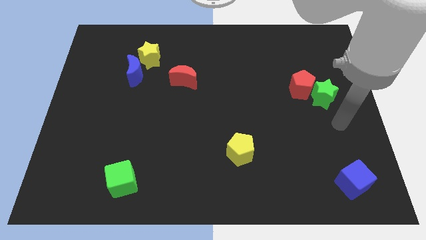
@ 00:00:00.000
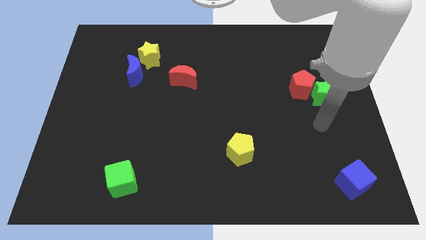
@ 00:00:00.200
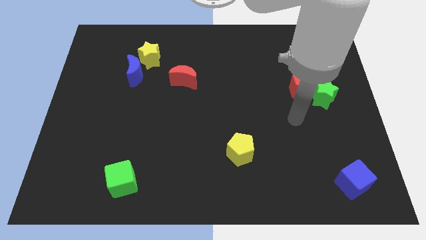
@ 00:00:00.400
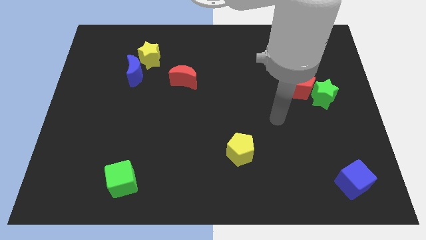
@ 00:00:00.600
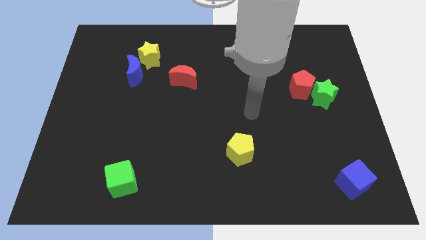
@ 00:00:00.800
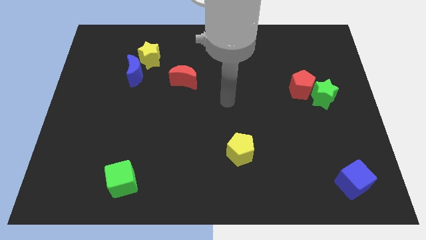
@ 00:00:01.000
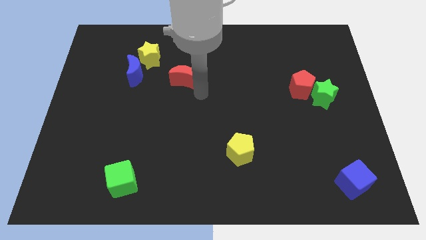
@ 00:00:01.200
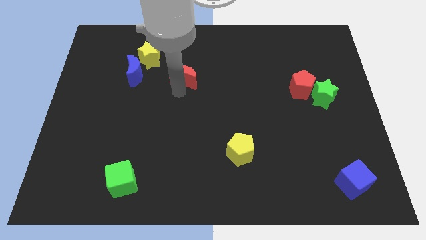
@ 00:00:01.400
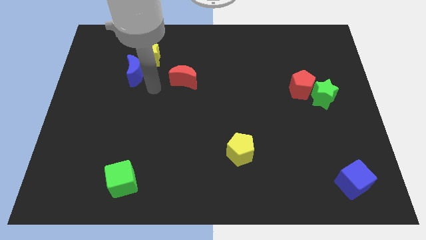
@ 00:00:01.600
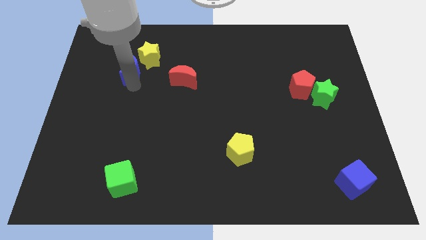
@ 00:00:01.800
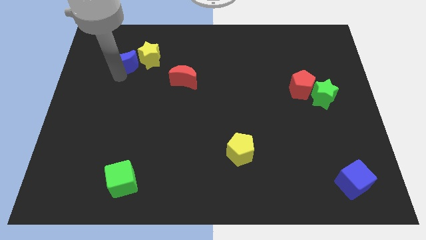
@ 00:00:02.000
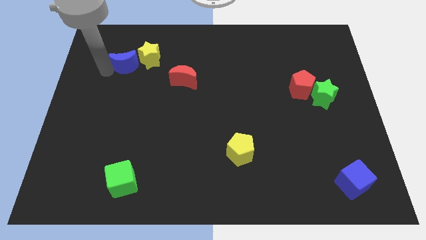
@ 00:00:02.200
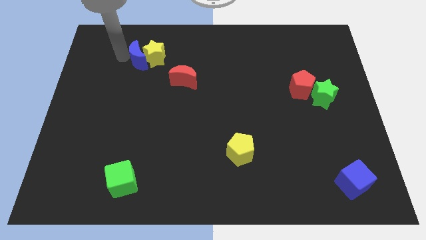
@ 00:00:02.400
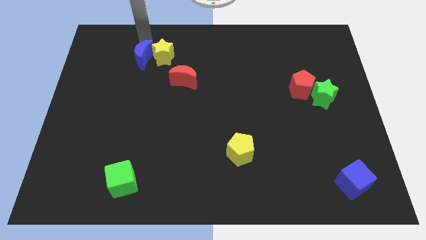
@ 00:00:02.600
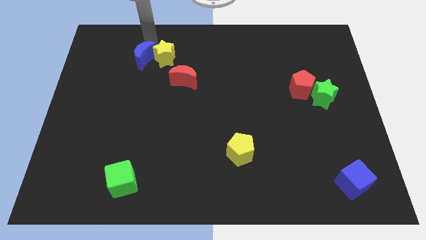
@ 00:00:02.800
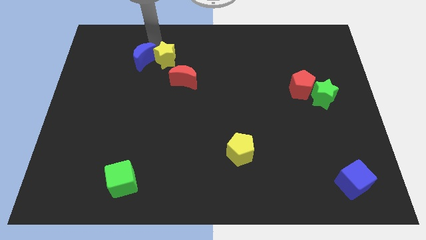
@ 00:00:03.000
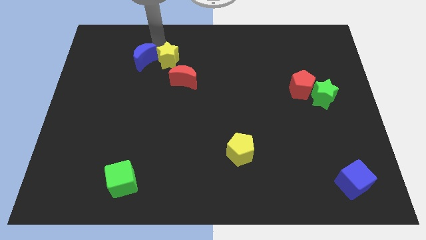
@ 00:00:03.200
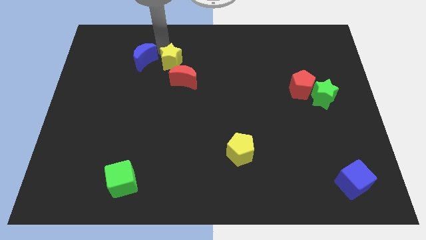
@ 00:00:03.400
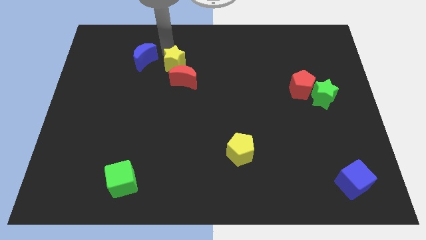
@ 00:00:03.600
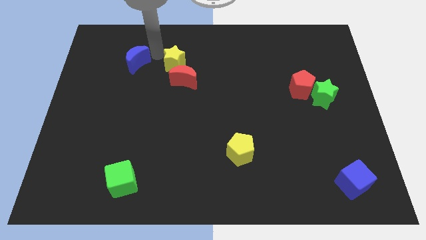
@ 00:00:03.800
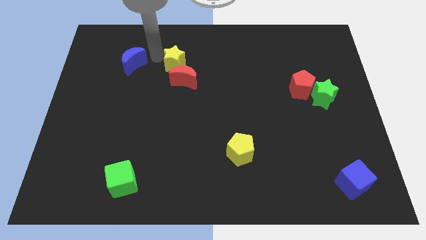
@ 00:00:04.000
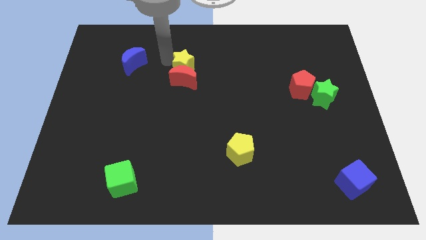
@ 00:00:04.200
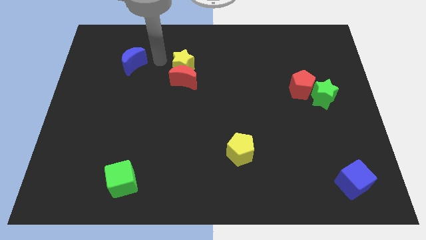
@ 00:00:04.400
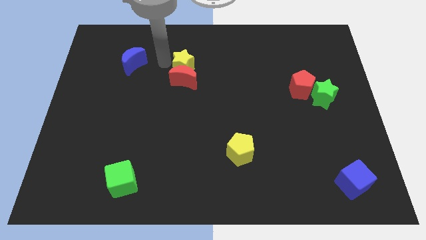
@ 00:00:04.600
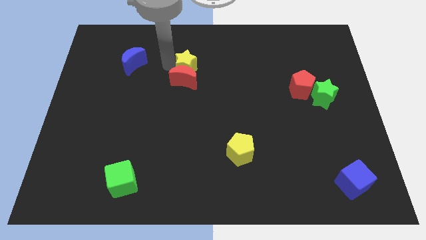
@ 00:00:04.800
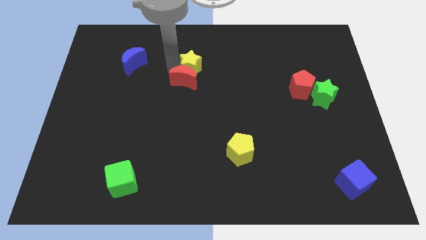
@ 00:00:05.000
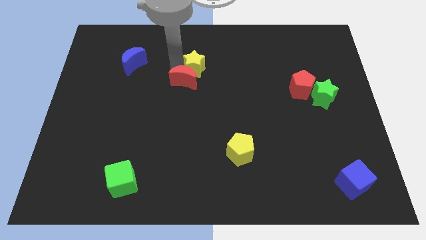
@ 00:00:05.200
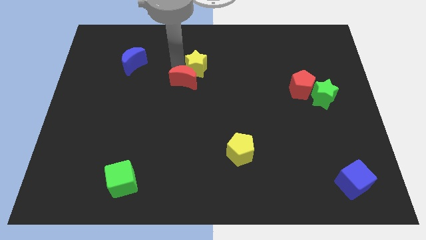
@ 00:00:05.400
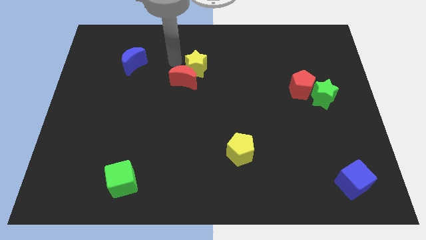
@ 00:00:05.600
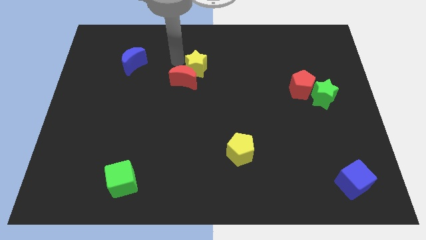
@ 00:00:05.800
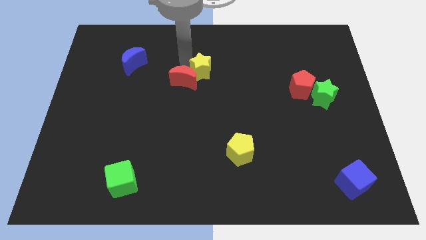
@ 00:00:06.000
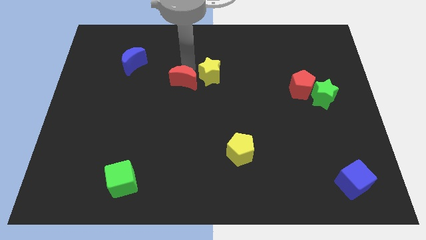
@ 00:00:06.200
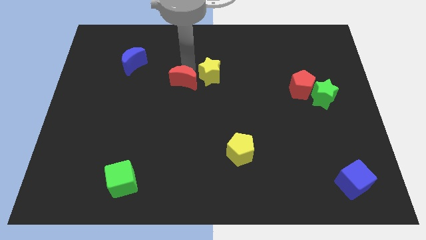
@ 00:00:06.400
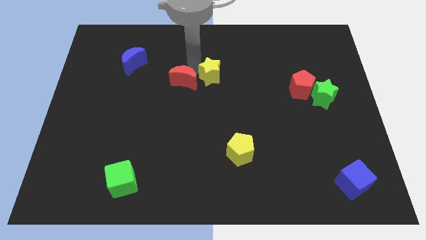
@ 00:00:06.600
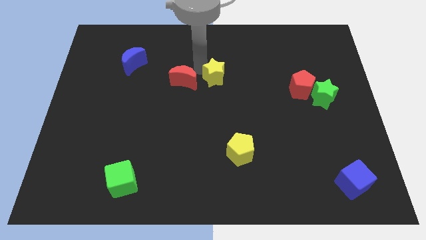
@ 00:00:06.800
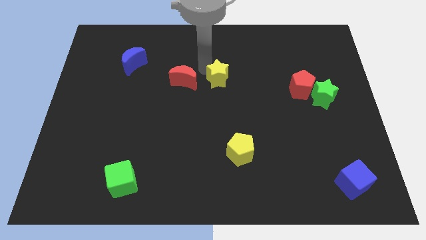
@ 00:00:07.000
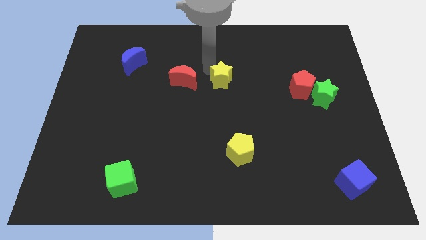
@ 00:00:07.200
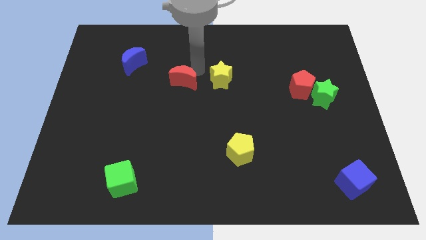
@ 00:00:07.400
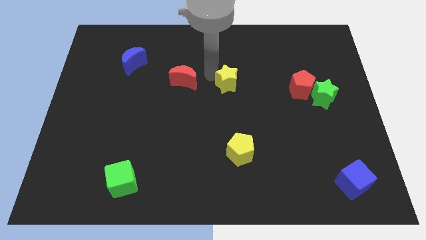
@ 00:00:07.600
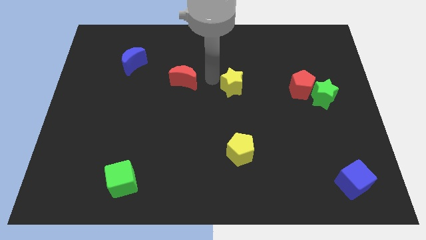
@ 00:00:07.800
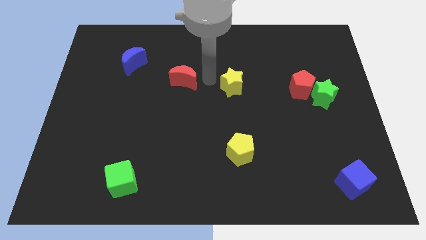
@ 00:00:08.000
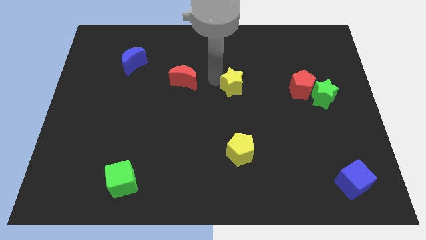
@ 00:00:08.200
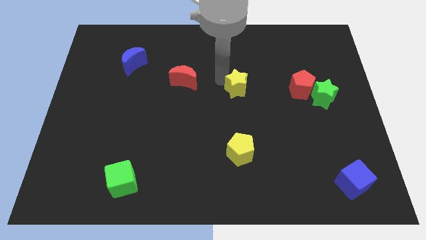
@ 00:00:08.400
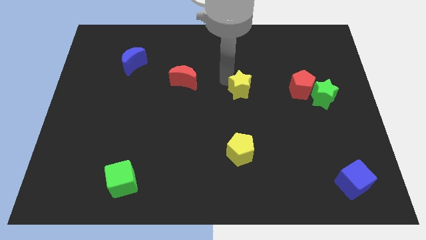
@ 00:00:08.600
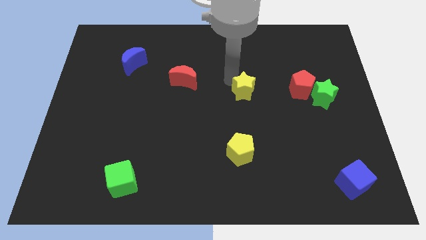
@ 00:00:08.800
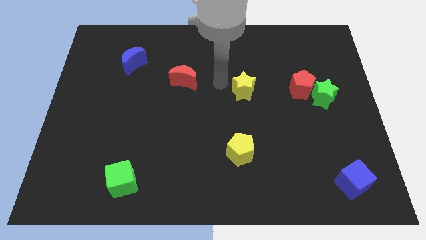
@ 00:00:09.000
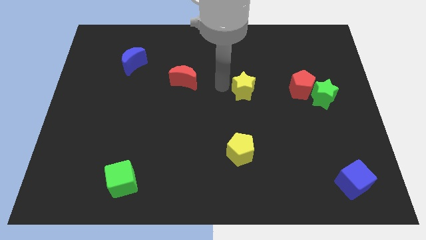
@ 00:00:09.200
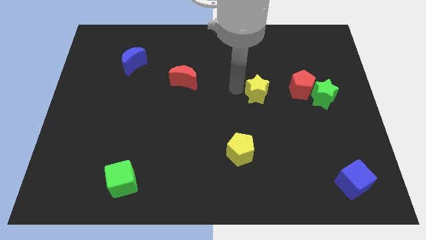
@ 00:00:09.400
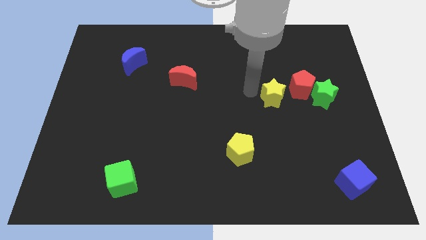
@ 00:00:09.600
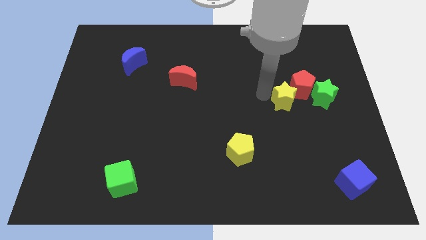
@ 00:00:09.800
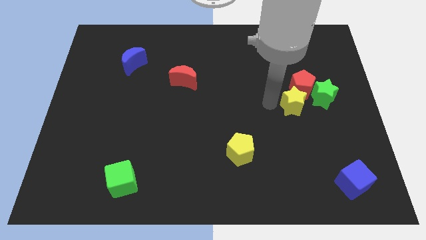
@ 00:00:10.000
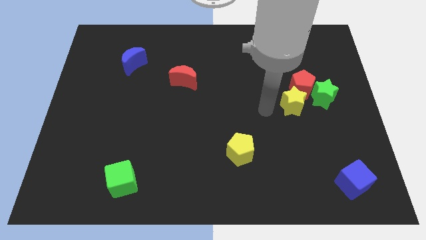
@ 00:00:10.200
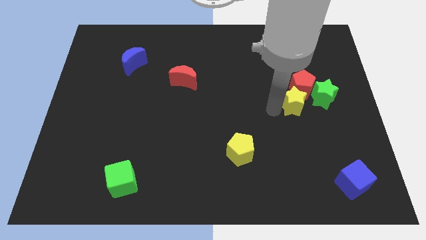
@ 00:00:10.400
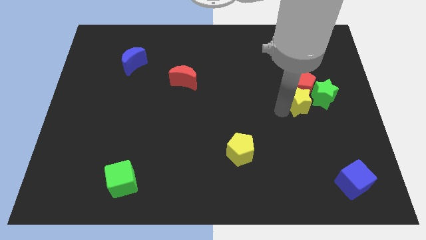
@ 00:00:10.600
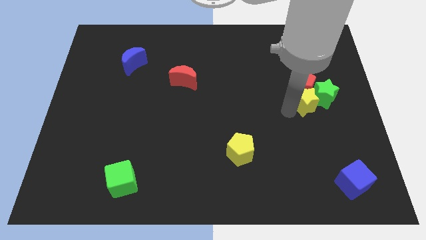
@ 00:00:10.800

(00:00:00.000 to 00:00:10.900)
put the yellow star close to the green star

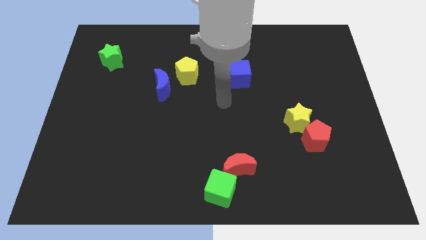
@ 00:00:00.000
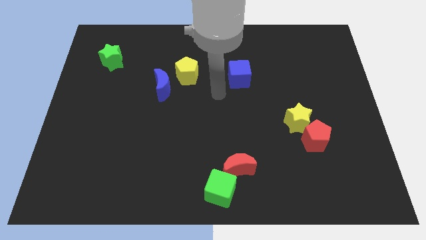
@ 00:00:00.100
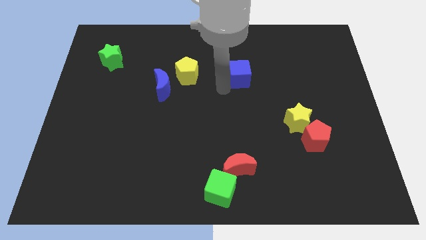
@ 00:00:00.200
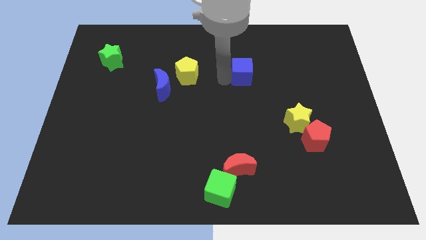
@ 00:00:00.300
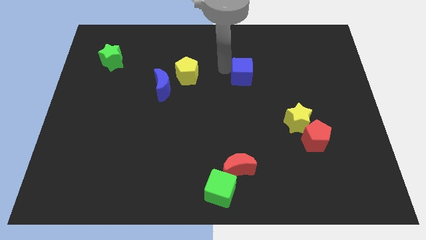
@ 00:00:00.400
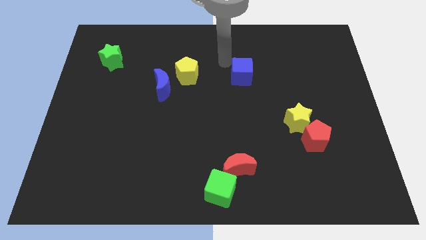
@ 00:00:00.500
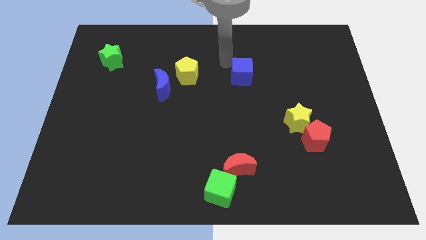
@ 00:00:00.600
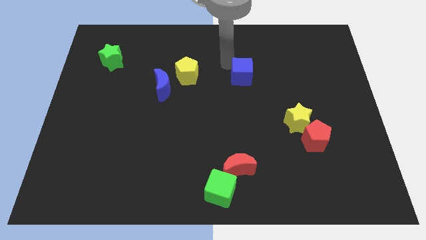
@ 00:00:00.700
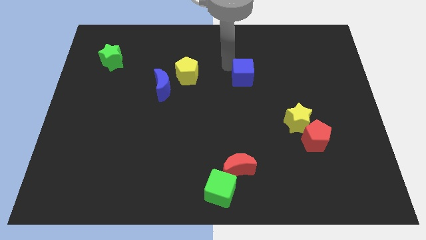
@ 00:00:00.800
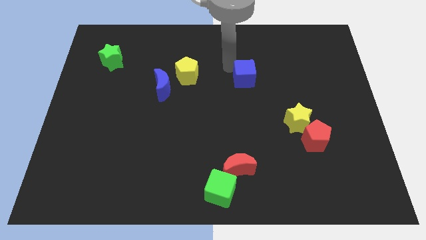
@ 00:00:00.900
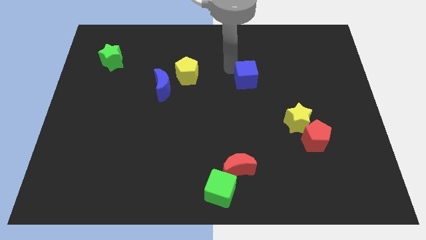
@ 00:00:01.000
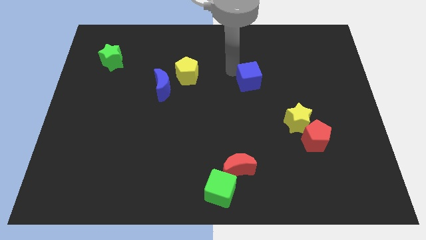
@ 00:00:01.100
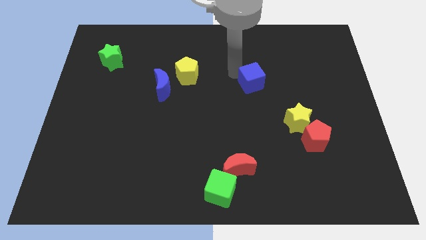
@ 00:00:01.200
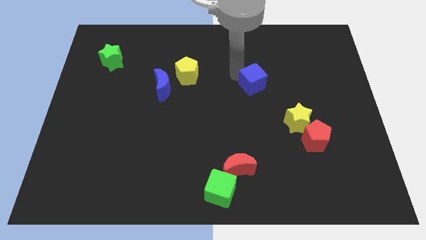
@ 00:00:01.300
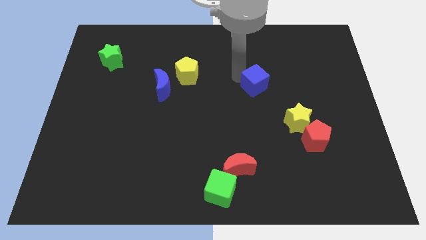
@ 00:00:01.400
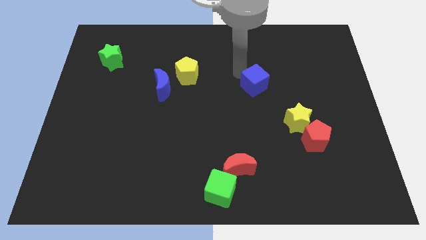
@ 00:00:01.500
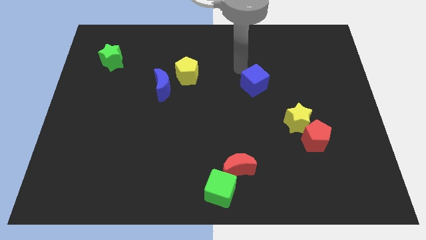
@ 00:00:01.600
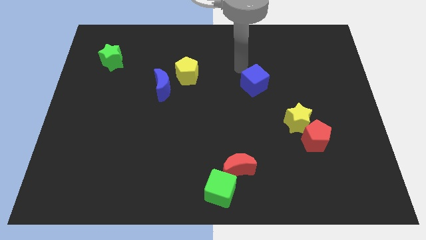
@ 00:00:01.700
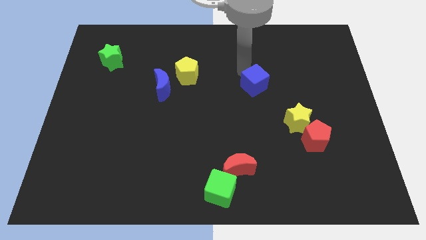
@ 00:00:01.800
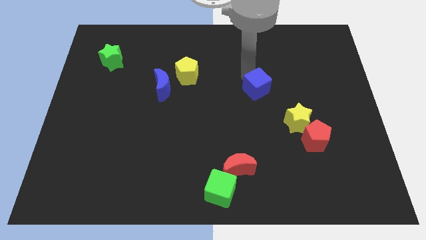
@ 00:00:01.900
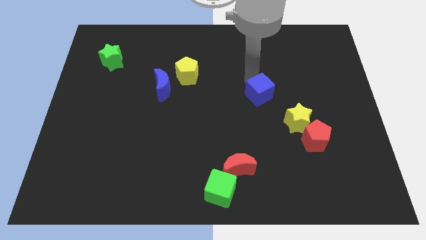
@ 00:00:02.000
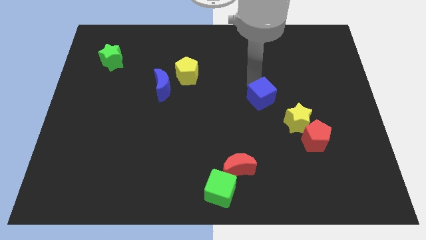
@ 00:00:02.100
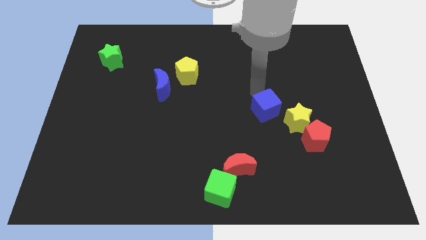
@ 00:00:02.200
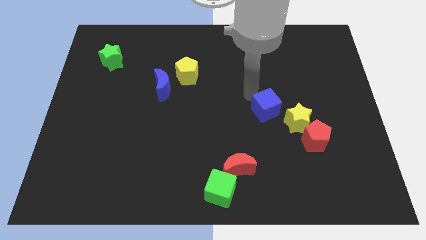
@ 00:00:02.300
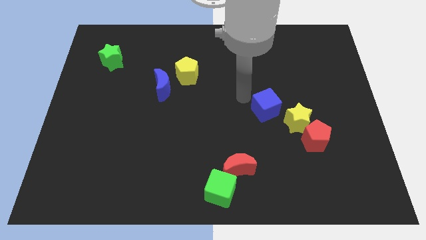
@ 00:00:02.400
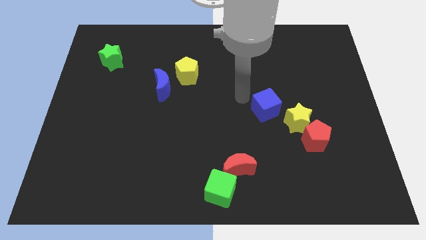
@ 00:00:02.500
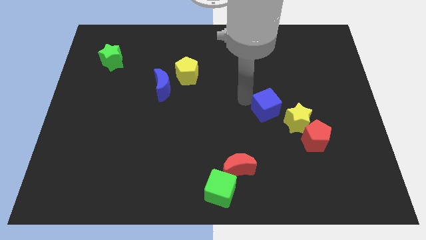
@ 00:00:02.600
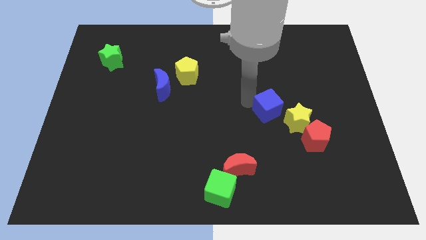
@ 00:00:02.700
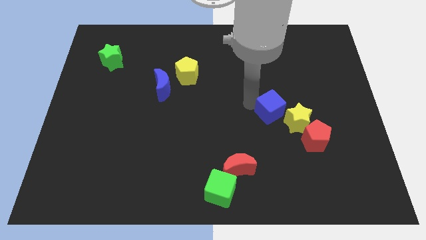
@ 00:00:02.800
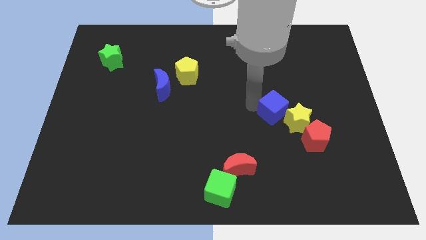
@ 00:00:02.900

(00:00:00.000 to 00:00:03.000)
move the blue cube towards the yellow star
